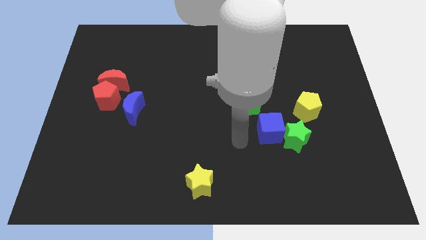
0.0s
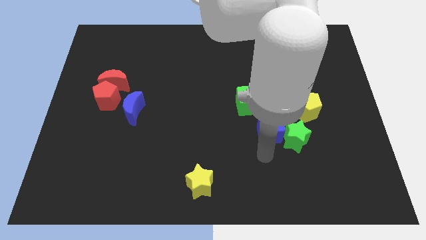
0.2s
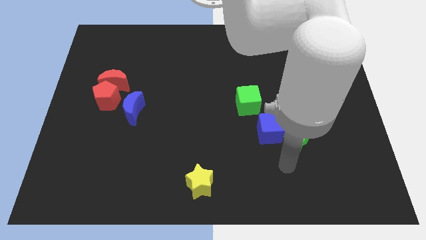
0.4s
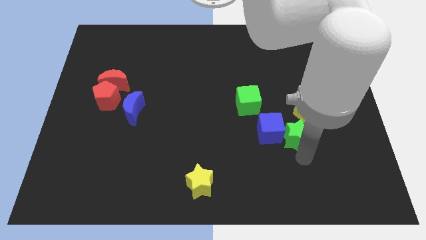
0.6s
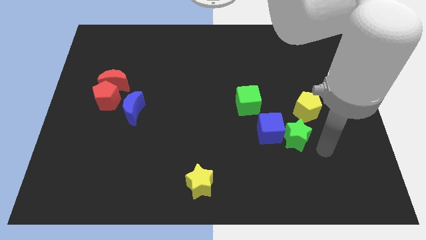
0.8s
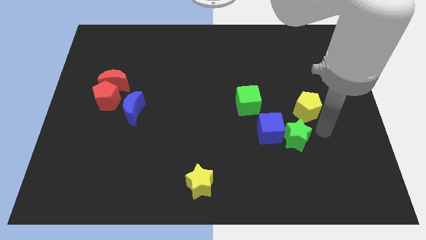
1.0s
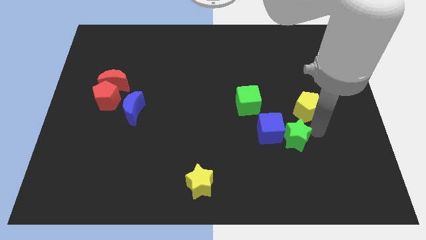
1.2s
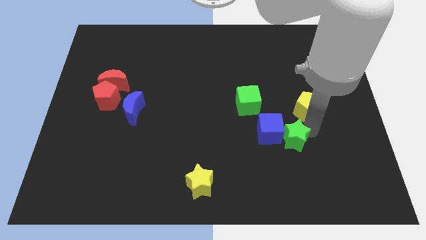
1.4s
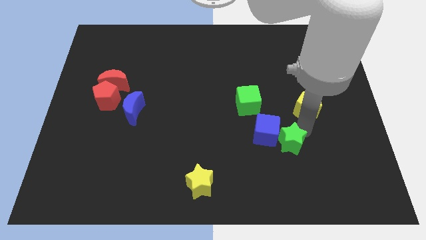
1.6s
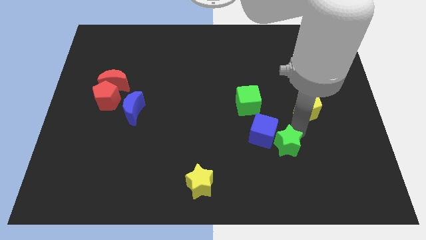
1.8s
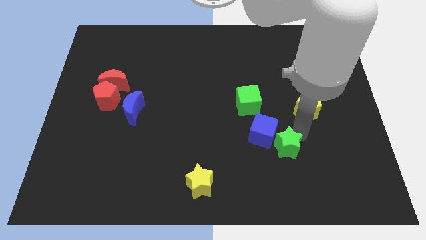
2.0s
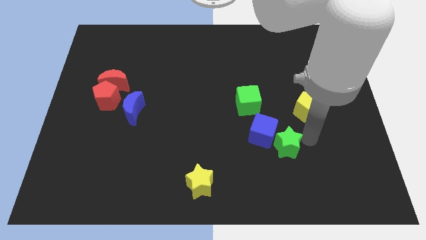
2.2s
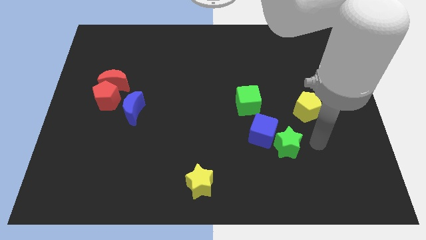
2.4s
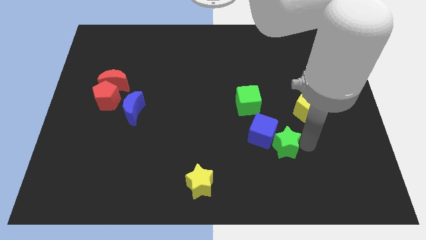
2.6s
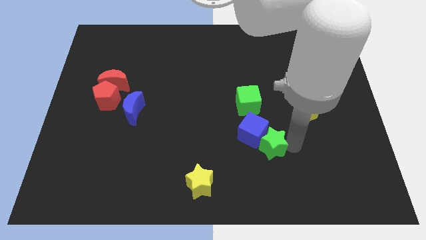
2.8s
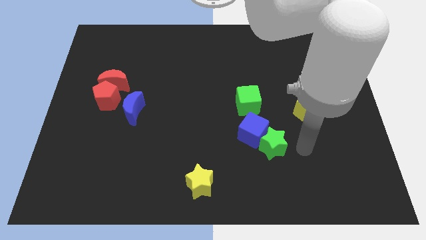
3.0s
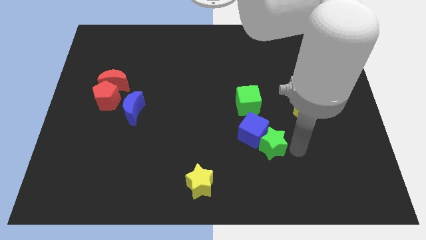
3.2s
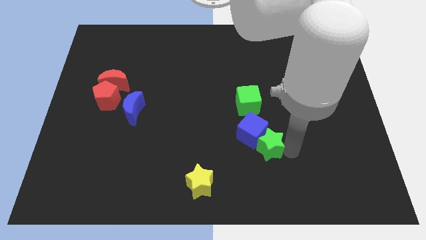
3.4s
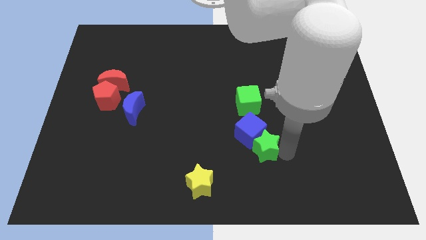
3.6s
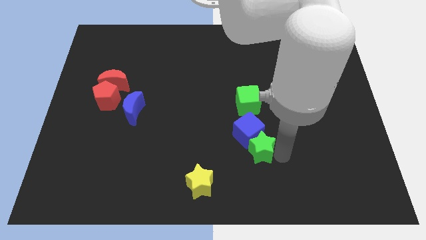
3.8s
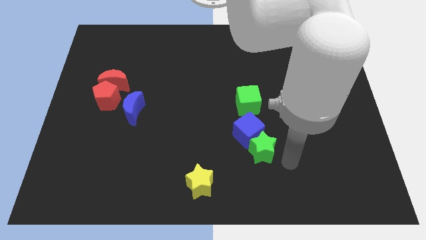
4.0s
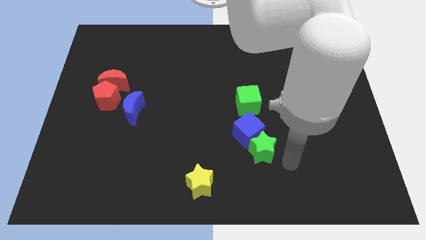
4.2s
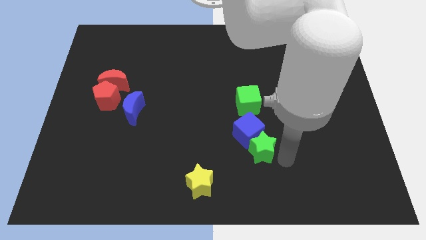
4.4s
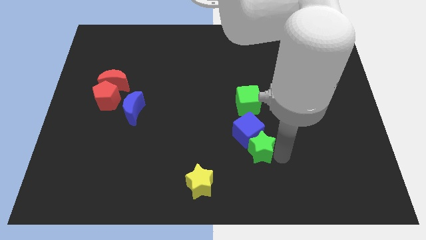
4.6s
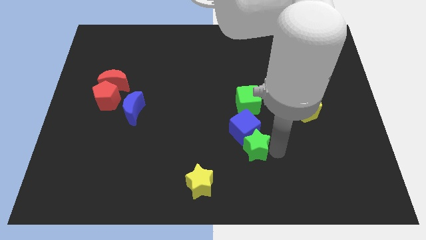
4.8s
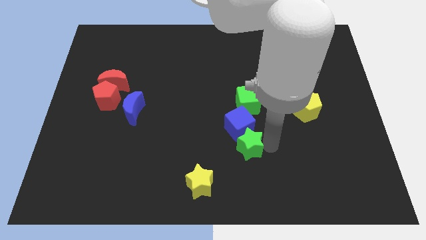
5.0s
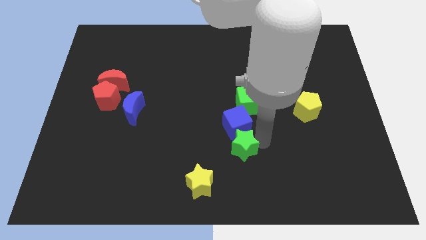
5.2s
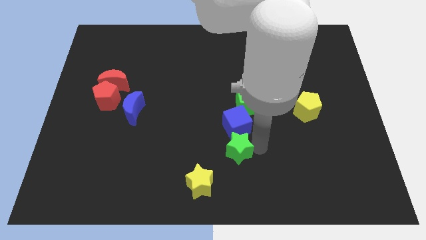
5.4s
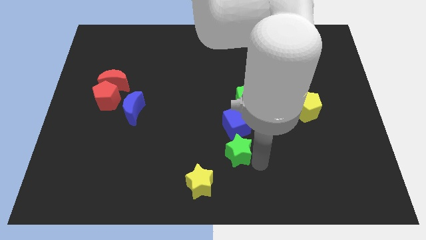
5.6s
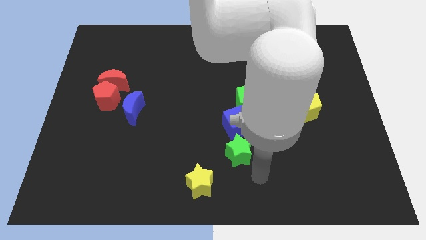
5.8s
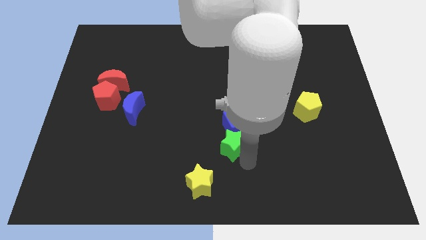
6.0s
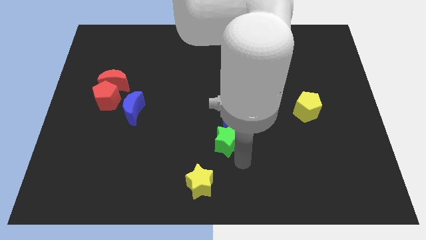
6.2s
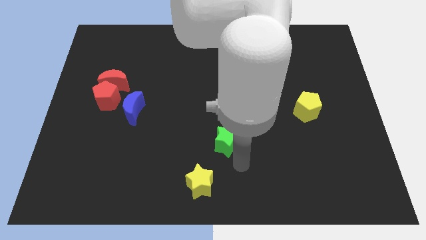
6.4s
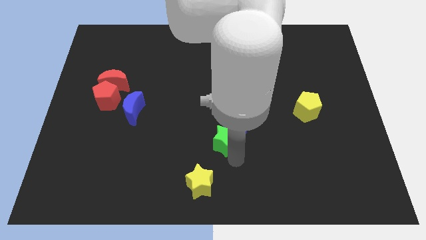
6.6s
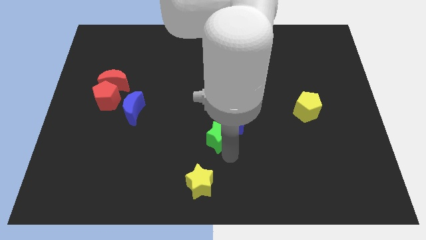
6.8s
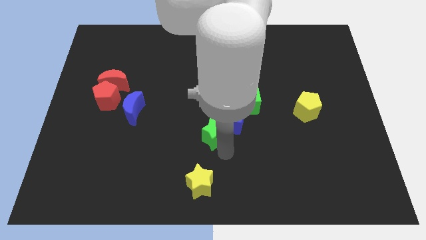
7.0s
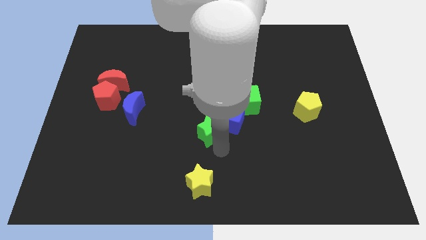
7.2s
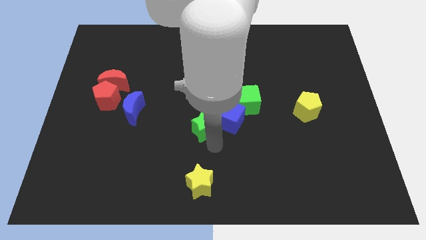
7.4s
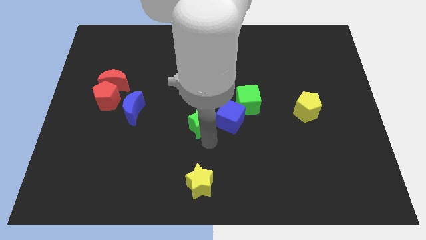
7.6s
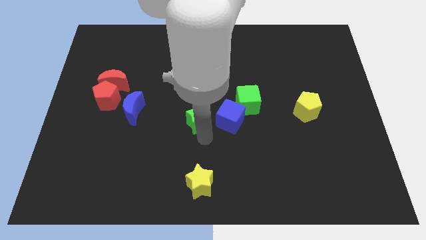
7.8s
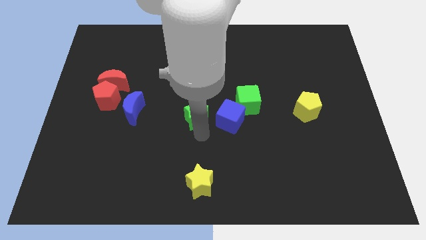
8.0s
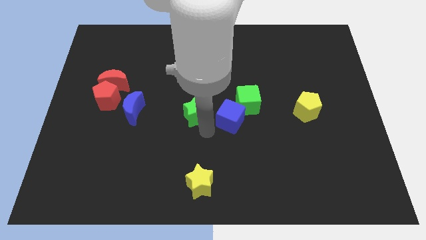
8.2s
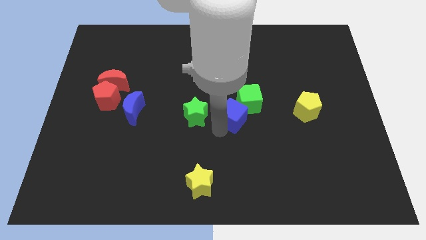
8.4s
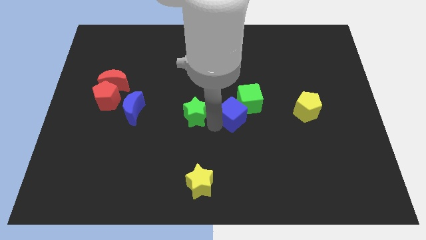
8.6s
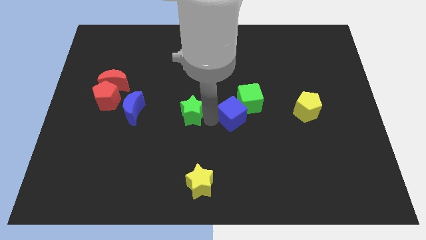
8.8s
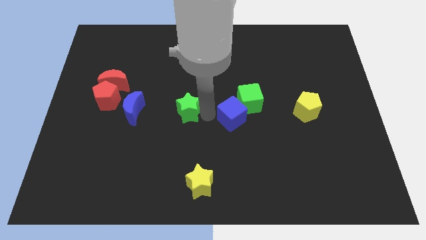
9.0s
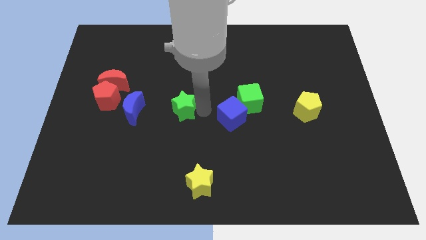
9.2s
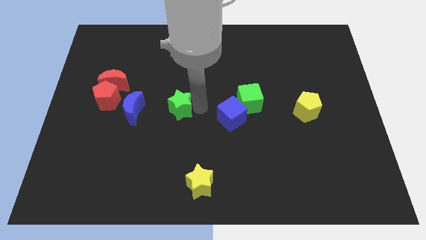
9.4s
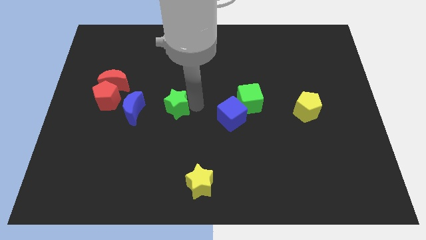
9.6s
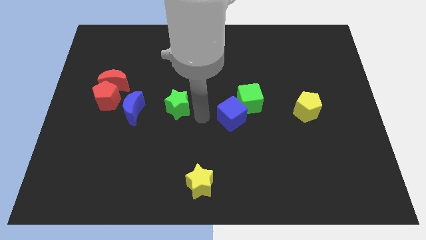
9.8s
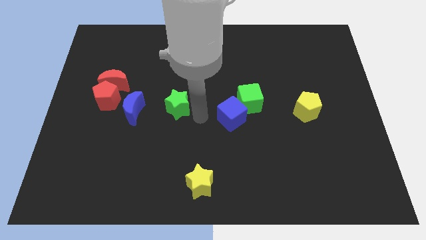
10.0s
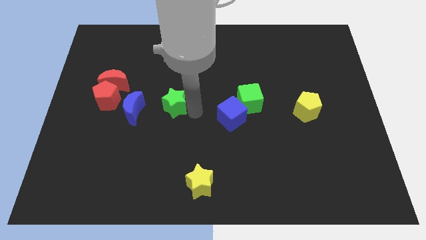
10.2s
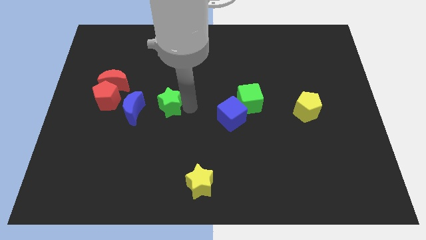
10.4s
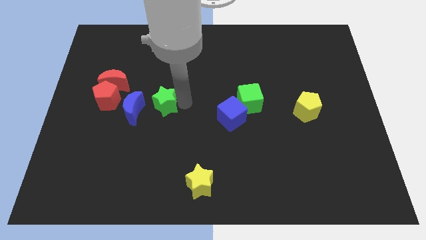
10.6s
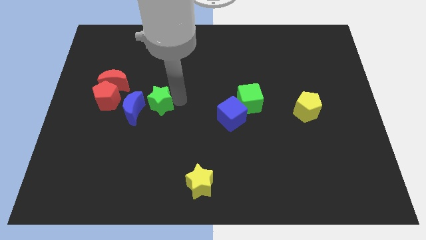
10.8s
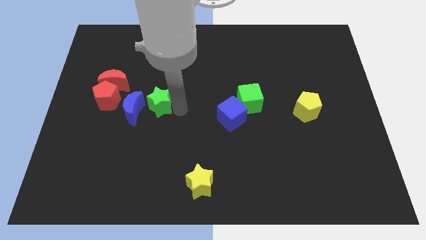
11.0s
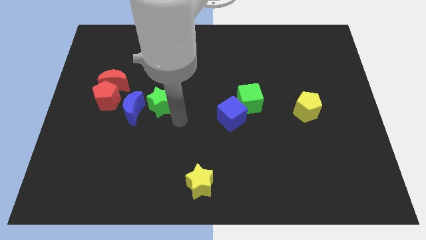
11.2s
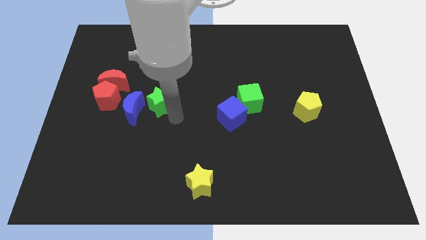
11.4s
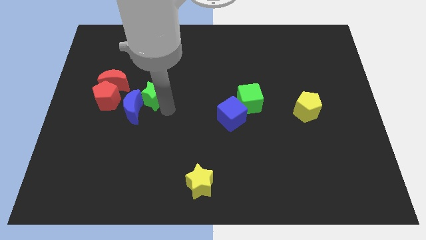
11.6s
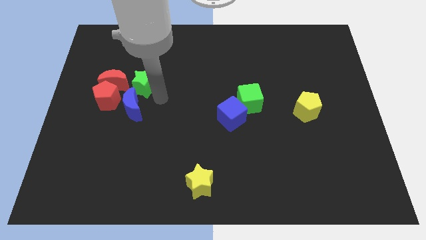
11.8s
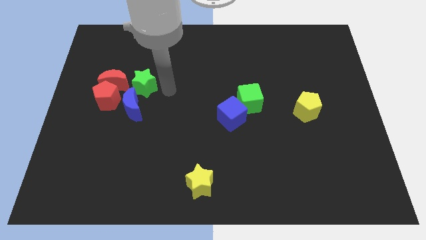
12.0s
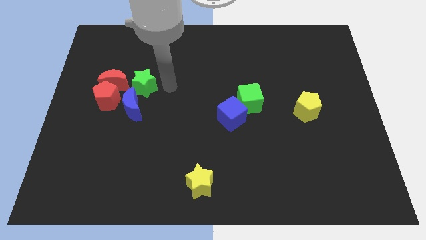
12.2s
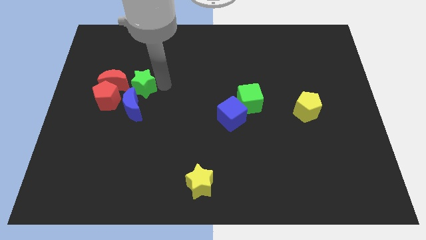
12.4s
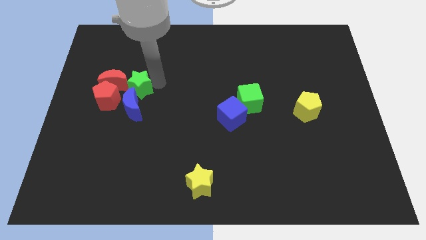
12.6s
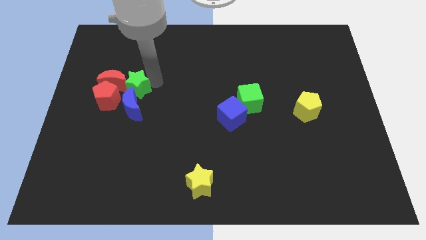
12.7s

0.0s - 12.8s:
slide the green star to the red moon

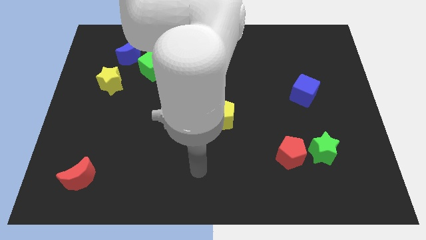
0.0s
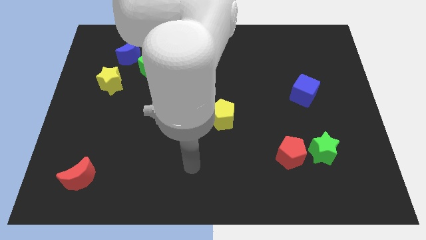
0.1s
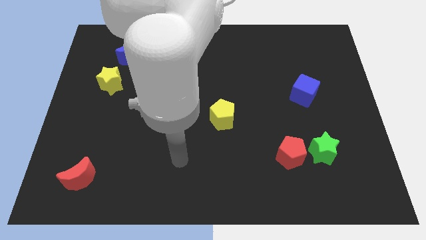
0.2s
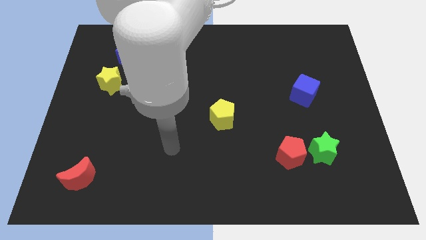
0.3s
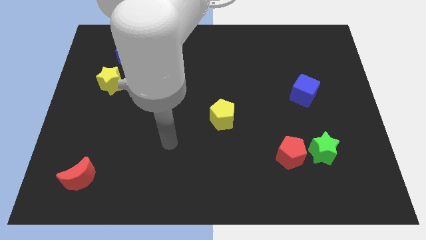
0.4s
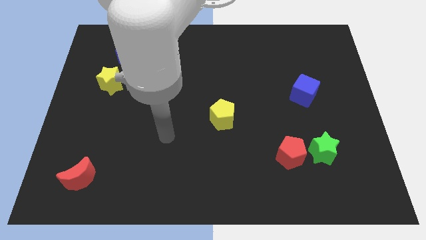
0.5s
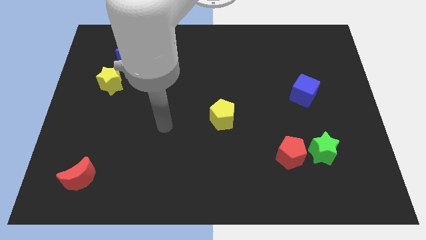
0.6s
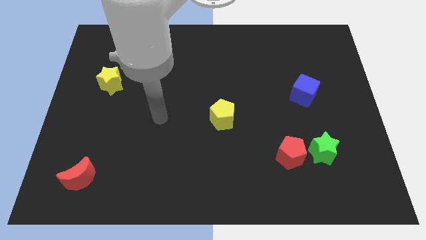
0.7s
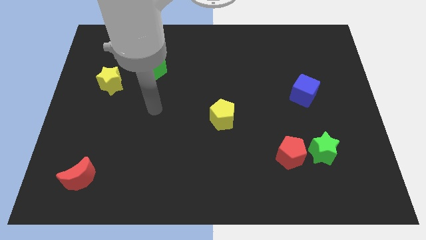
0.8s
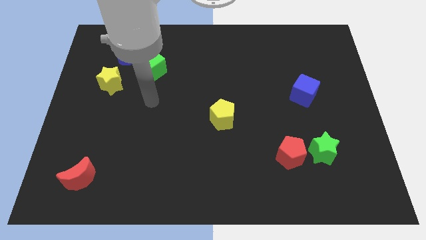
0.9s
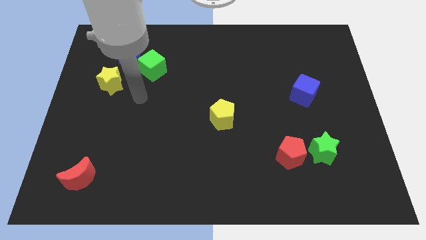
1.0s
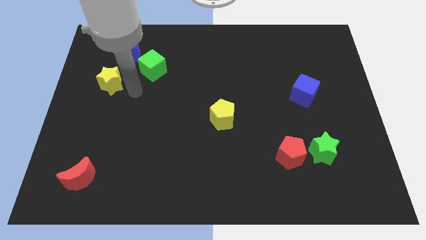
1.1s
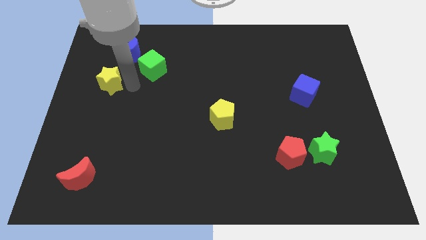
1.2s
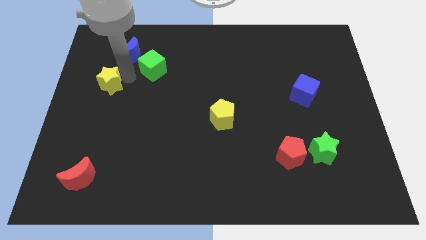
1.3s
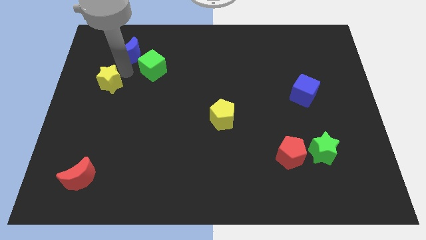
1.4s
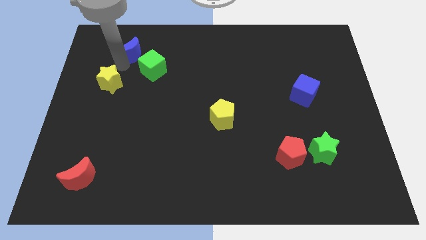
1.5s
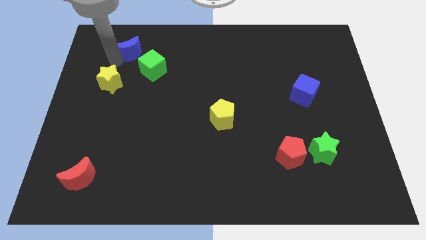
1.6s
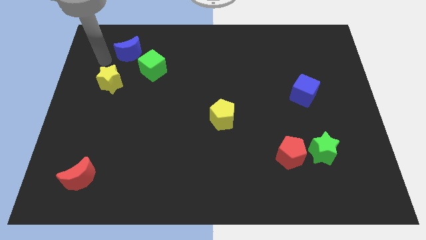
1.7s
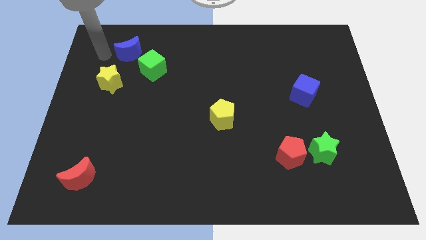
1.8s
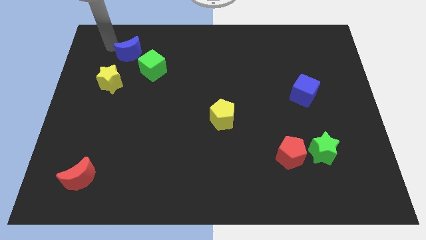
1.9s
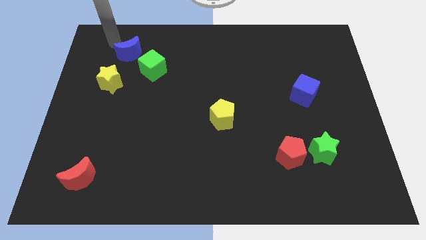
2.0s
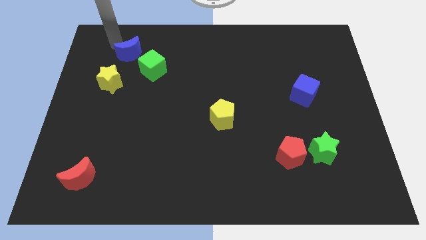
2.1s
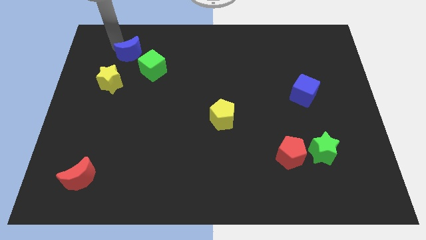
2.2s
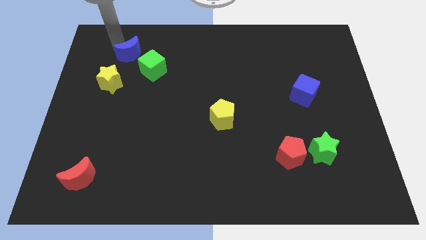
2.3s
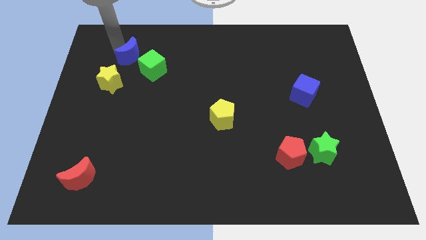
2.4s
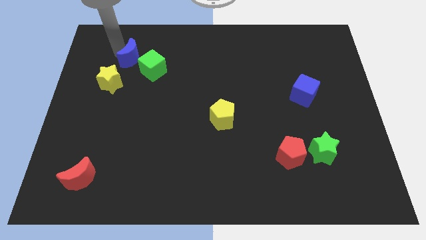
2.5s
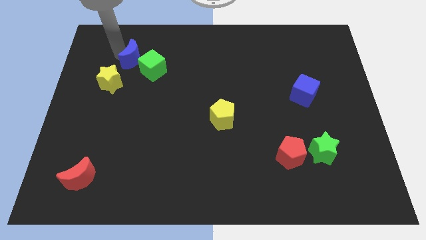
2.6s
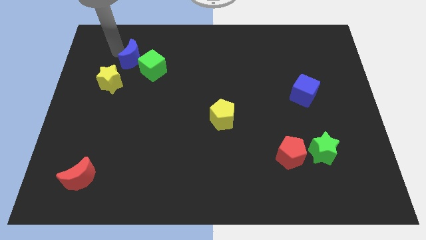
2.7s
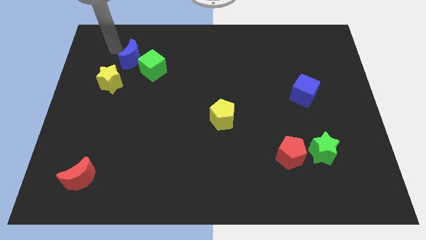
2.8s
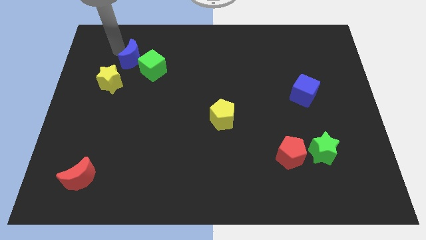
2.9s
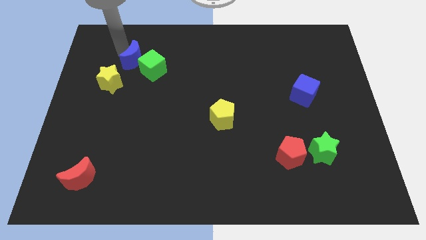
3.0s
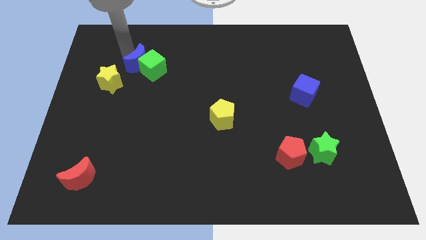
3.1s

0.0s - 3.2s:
slide the blue moon next to the green cube
